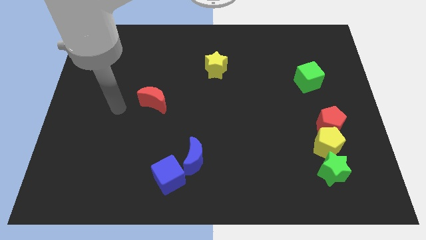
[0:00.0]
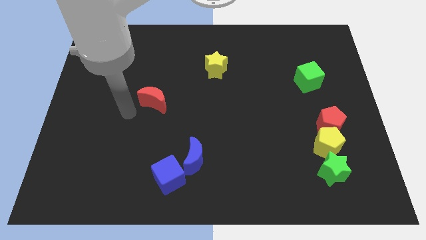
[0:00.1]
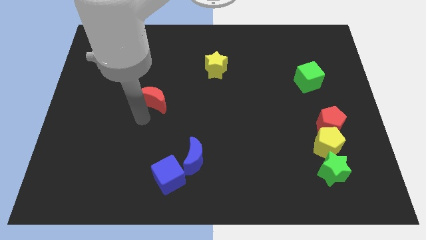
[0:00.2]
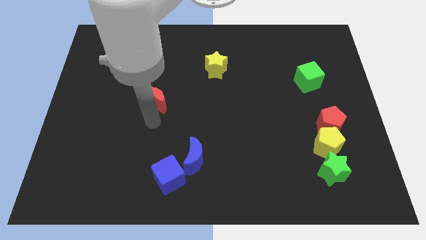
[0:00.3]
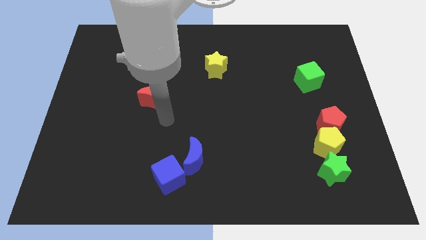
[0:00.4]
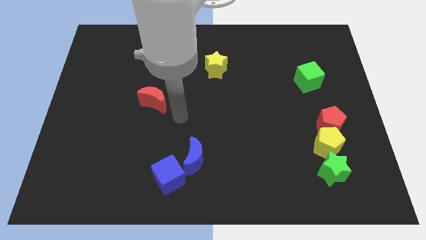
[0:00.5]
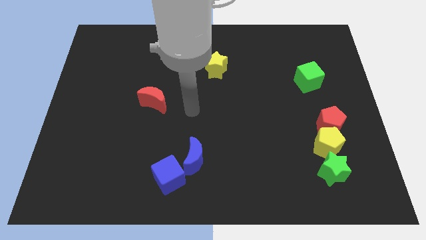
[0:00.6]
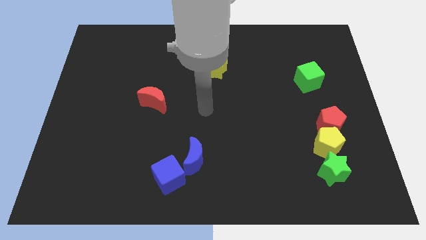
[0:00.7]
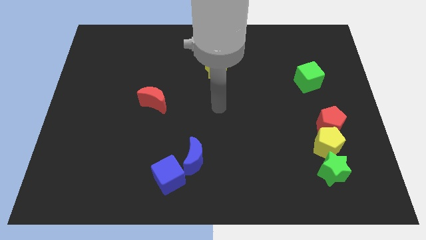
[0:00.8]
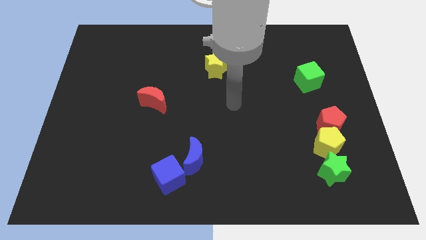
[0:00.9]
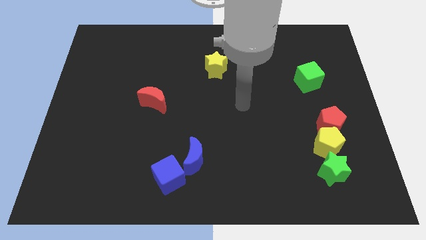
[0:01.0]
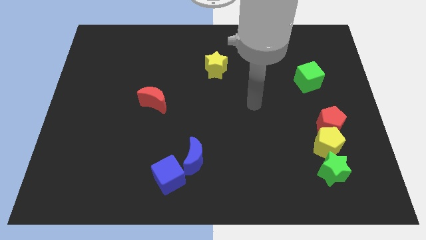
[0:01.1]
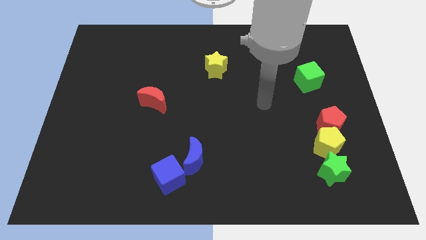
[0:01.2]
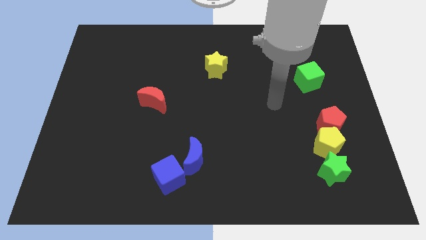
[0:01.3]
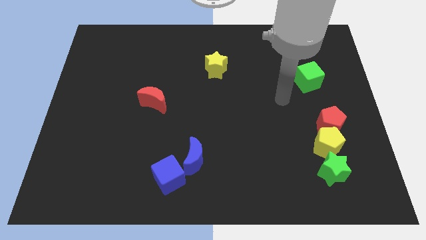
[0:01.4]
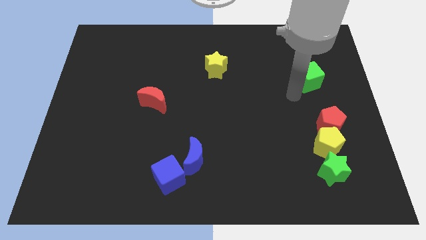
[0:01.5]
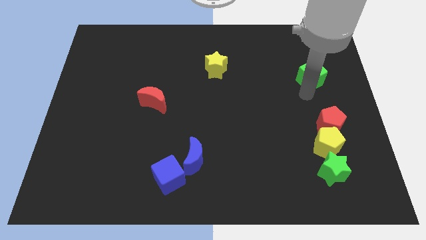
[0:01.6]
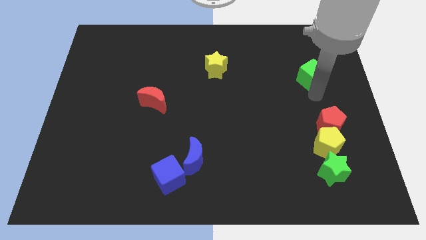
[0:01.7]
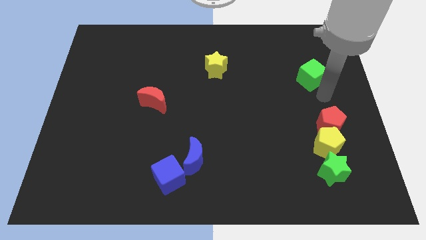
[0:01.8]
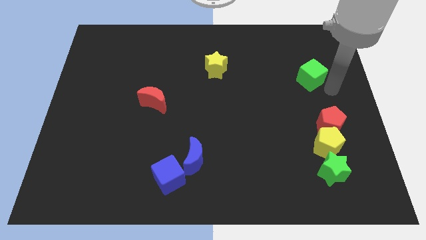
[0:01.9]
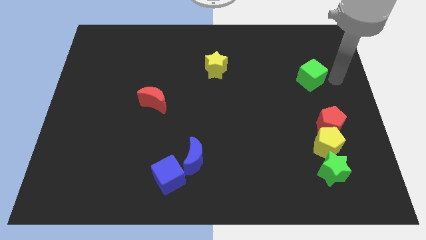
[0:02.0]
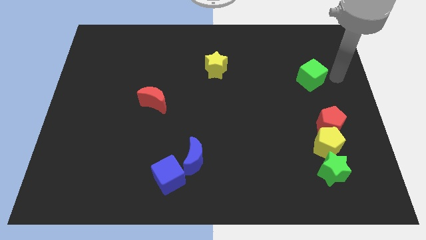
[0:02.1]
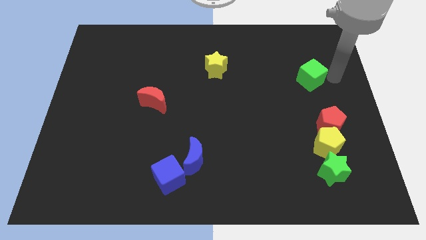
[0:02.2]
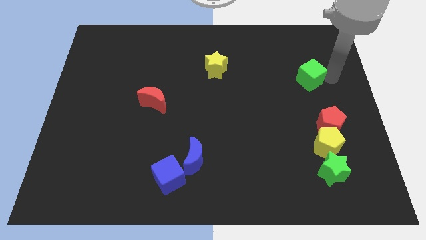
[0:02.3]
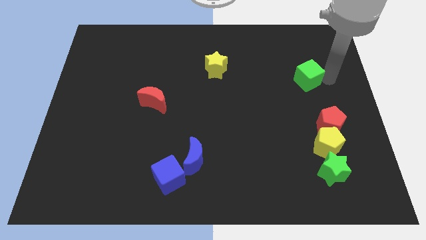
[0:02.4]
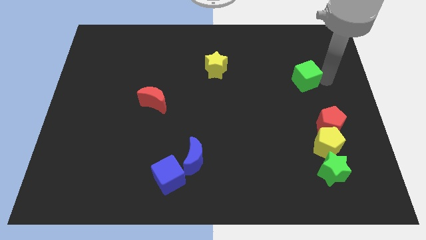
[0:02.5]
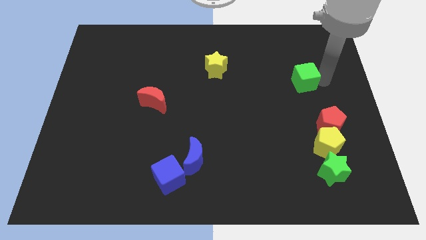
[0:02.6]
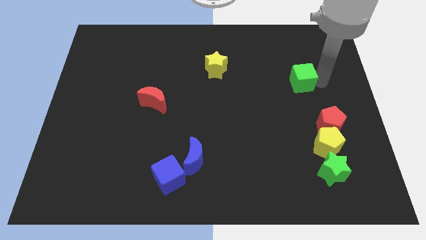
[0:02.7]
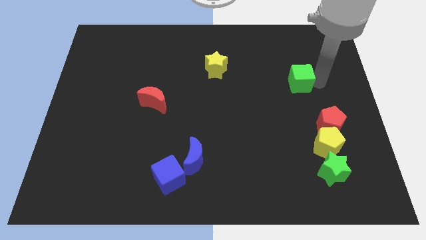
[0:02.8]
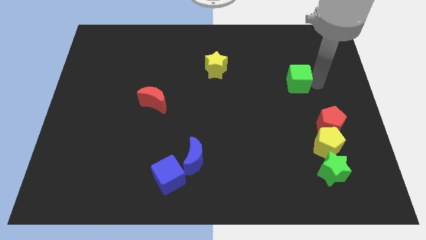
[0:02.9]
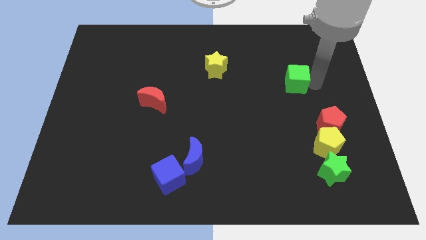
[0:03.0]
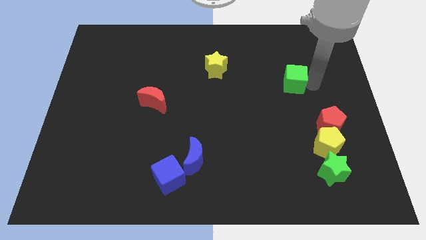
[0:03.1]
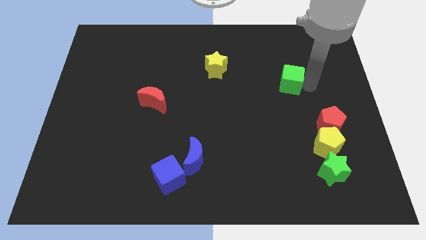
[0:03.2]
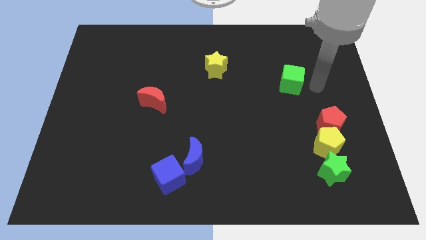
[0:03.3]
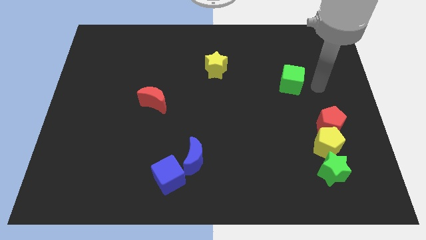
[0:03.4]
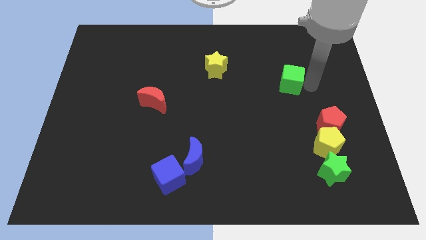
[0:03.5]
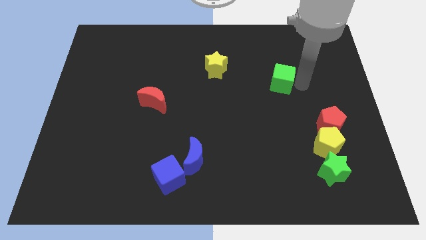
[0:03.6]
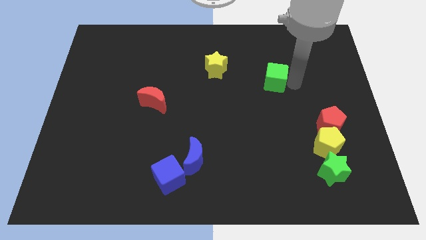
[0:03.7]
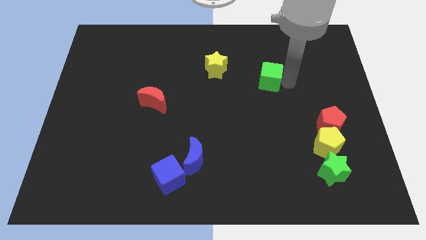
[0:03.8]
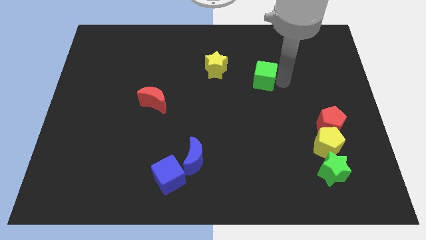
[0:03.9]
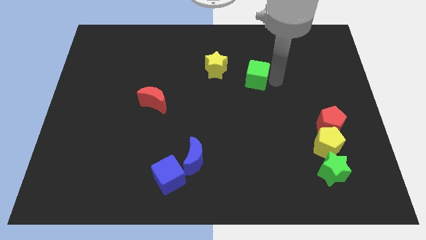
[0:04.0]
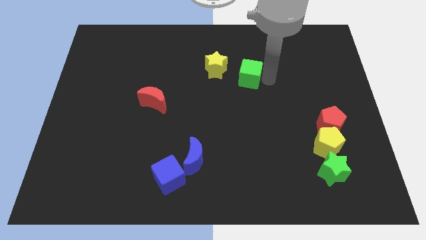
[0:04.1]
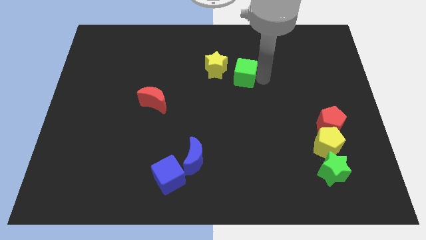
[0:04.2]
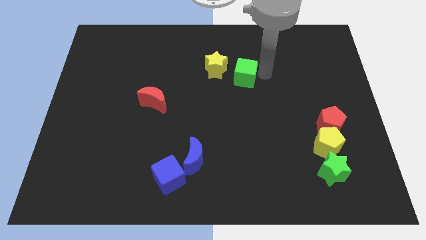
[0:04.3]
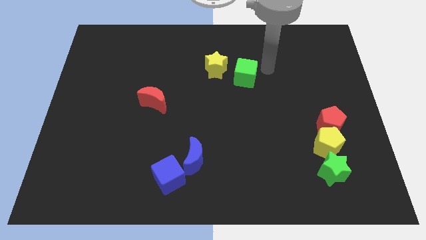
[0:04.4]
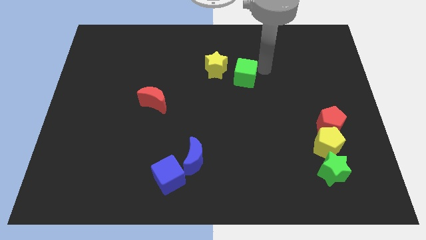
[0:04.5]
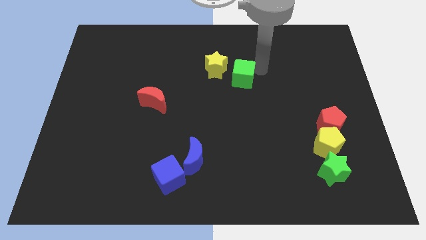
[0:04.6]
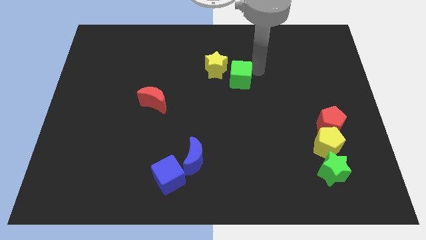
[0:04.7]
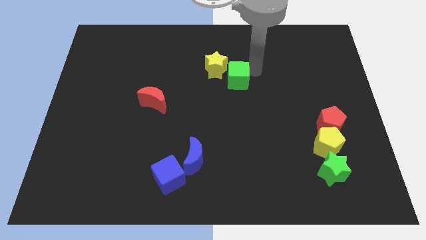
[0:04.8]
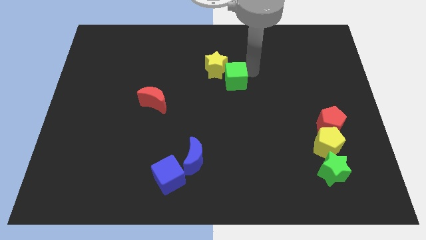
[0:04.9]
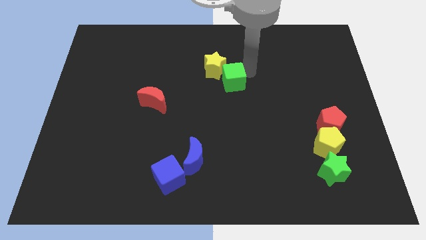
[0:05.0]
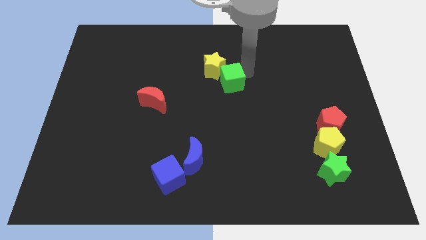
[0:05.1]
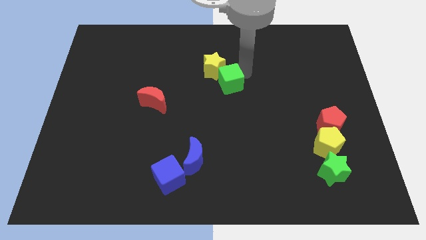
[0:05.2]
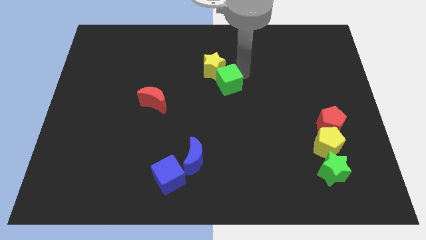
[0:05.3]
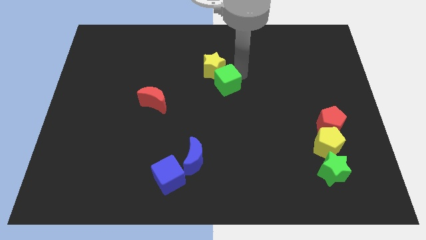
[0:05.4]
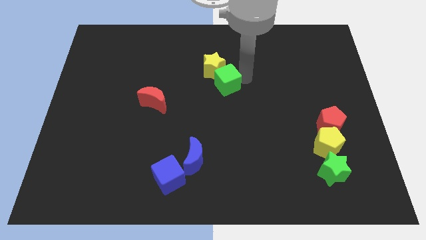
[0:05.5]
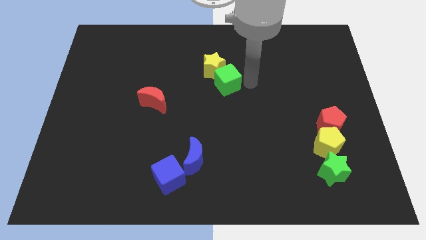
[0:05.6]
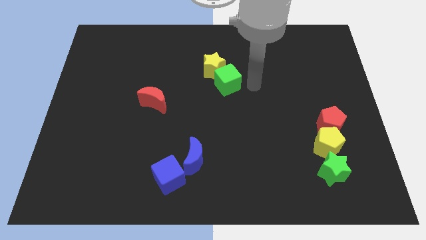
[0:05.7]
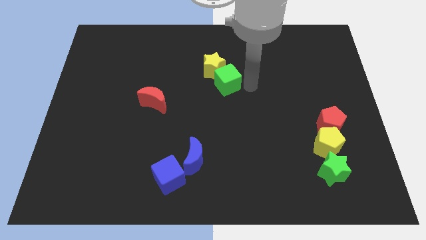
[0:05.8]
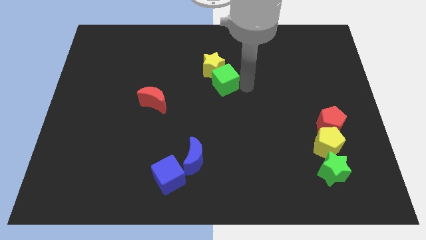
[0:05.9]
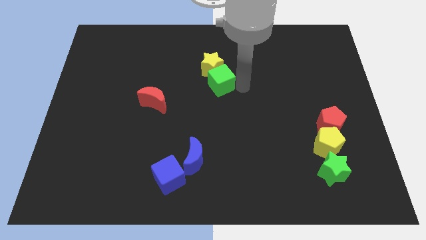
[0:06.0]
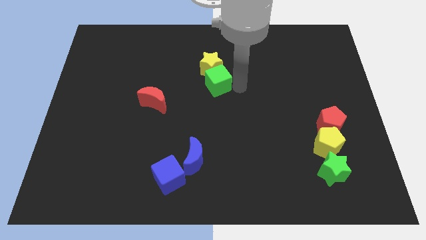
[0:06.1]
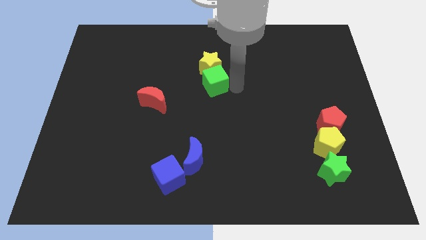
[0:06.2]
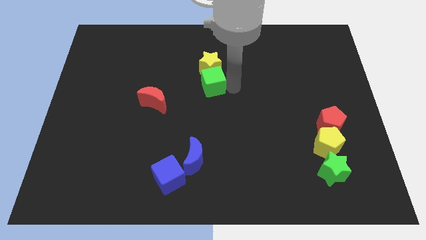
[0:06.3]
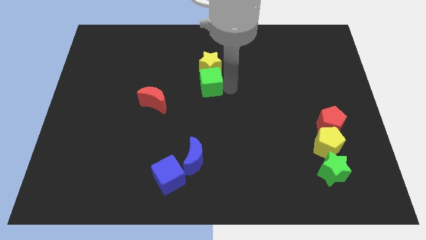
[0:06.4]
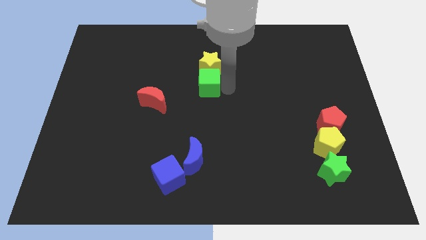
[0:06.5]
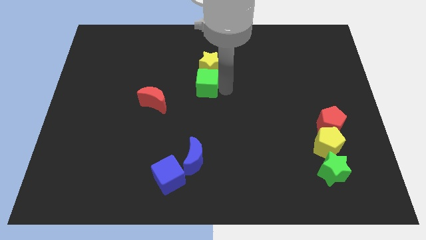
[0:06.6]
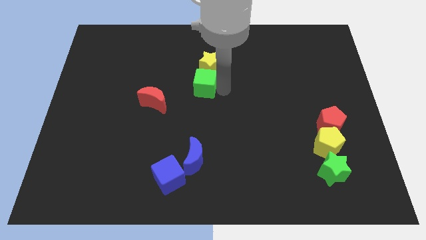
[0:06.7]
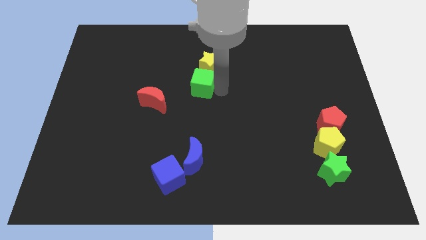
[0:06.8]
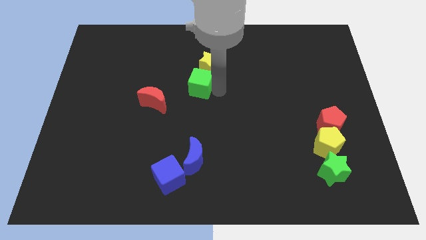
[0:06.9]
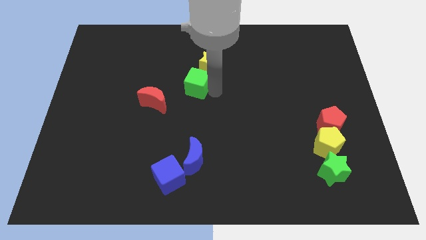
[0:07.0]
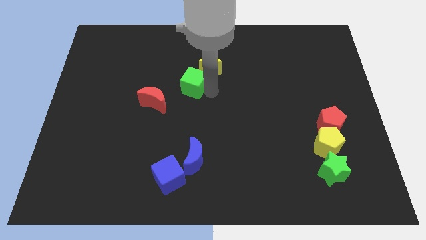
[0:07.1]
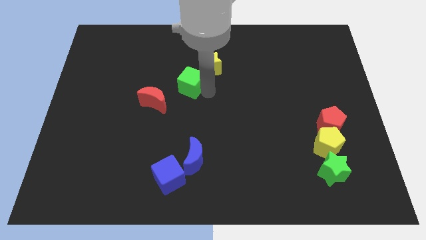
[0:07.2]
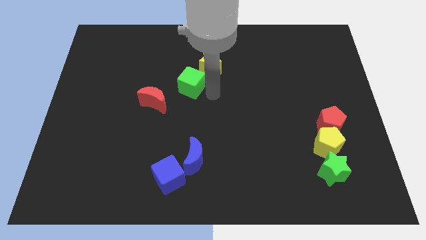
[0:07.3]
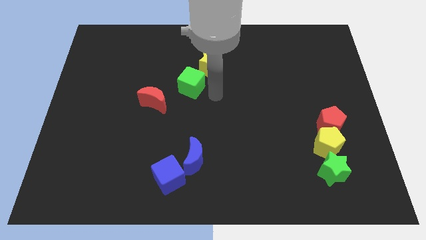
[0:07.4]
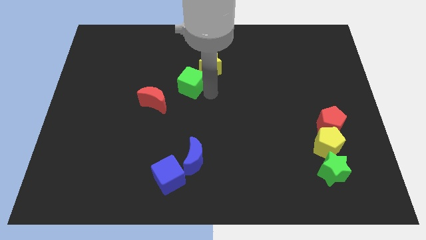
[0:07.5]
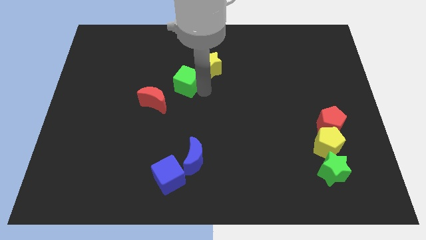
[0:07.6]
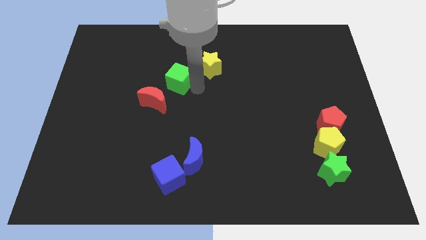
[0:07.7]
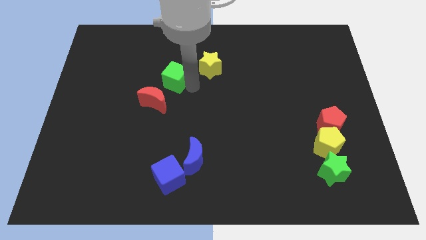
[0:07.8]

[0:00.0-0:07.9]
slide the green cube to the top of the red moon
